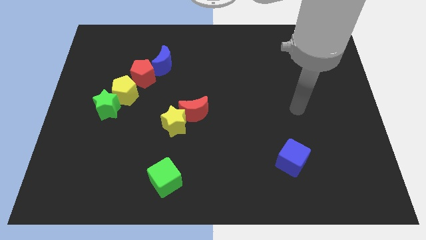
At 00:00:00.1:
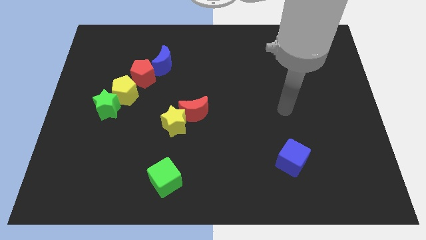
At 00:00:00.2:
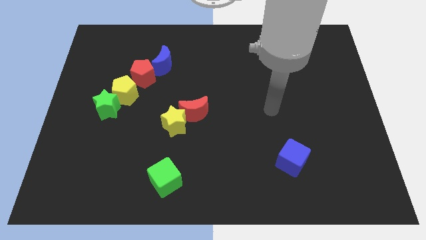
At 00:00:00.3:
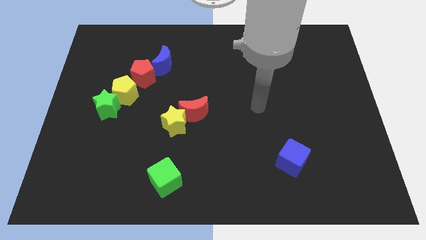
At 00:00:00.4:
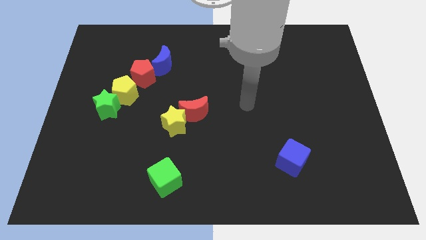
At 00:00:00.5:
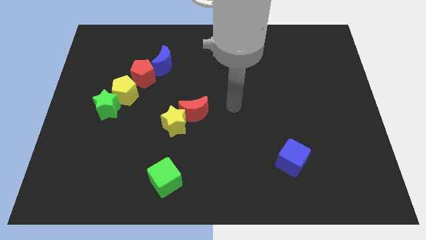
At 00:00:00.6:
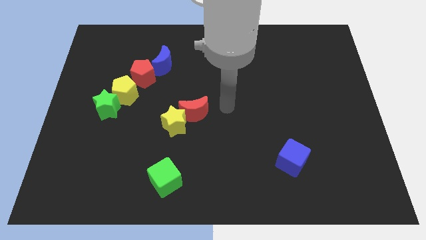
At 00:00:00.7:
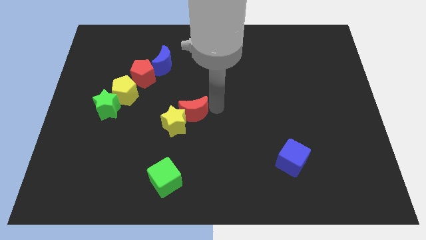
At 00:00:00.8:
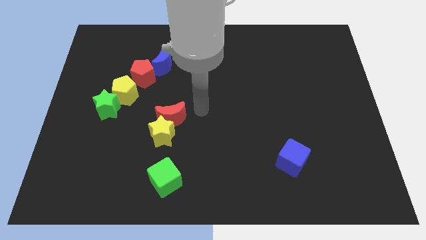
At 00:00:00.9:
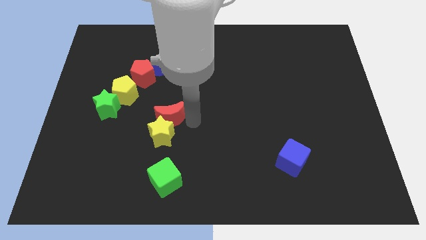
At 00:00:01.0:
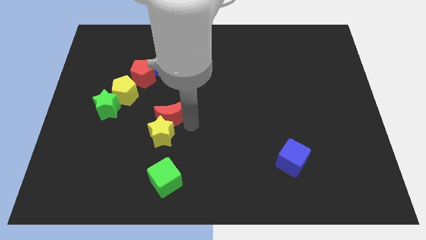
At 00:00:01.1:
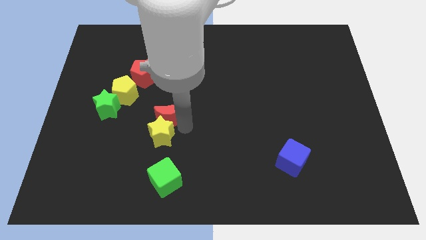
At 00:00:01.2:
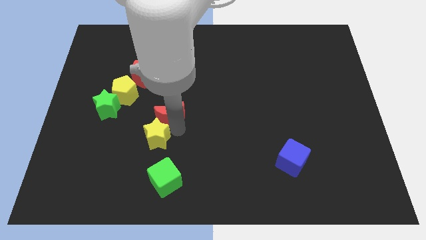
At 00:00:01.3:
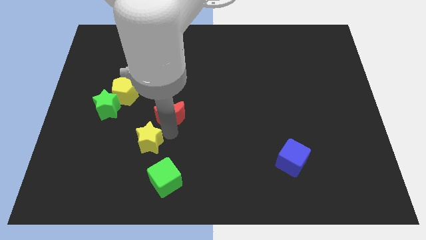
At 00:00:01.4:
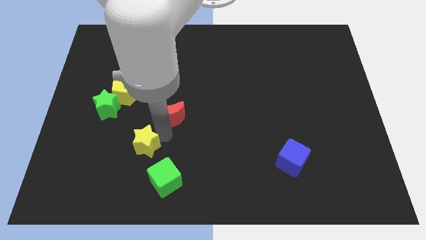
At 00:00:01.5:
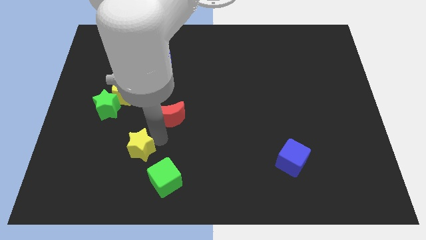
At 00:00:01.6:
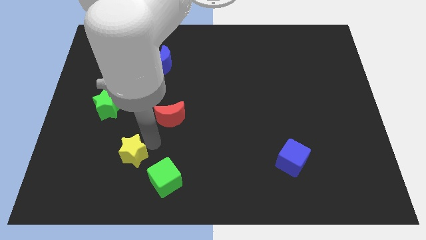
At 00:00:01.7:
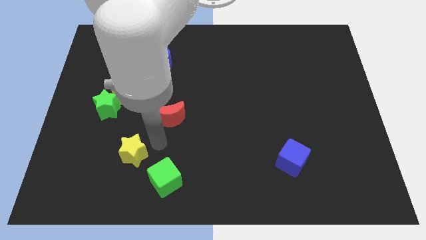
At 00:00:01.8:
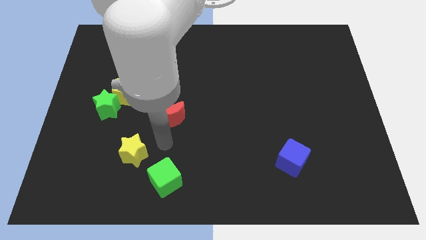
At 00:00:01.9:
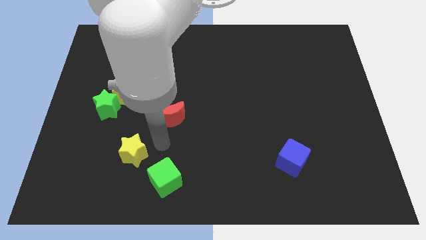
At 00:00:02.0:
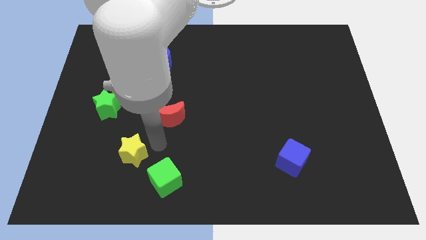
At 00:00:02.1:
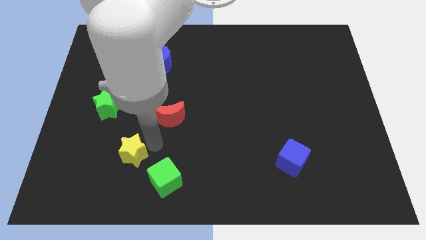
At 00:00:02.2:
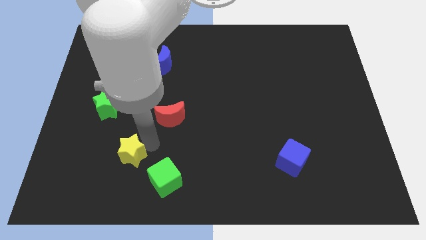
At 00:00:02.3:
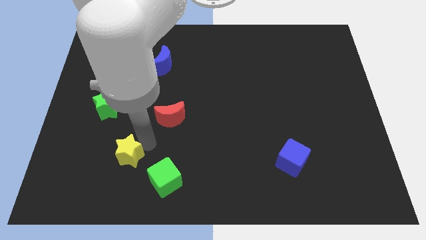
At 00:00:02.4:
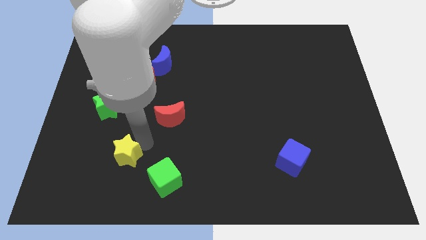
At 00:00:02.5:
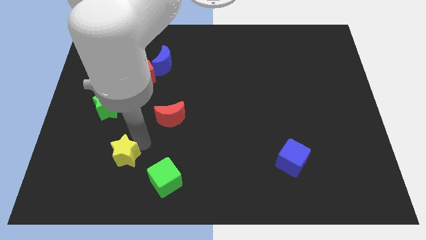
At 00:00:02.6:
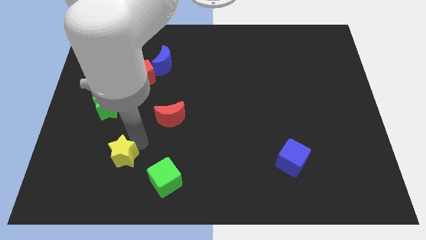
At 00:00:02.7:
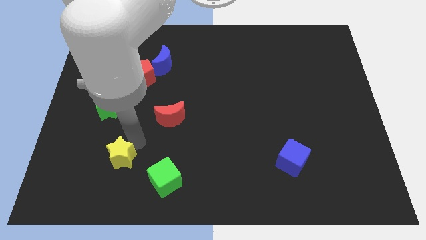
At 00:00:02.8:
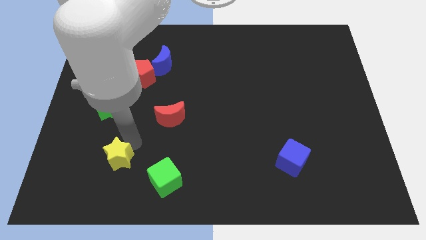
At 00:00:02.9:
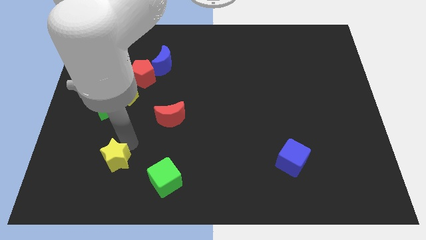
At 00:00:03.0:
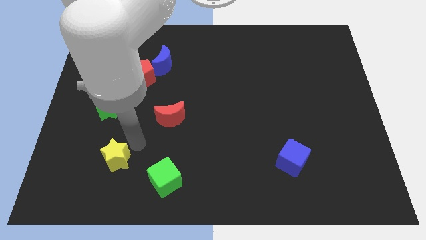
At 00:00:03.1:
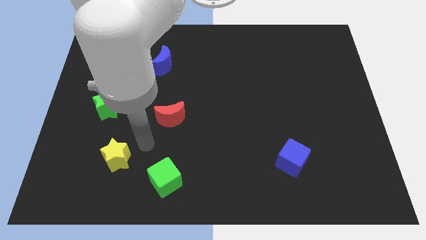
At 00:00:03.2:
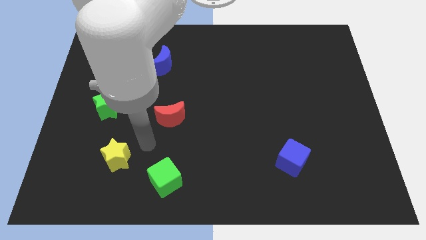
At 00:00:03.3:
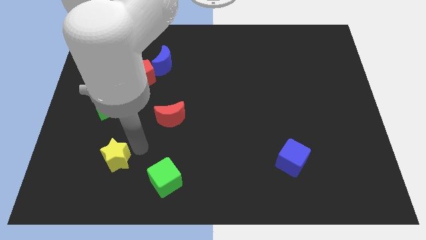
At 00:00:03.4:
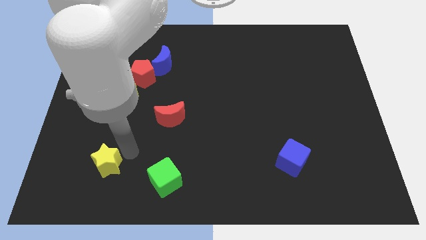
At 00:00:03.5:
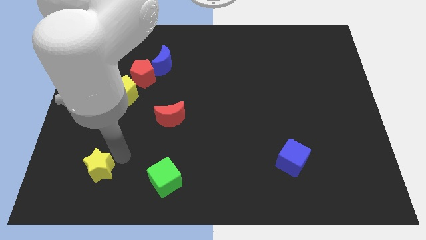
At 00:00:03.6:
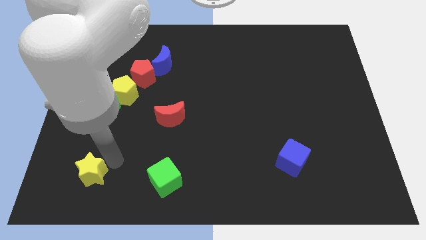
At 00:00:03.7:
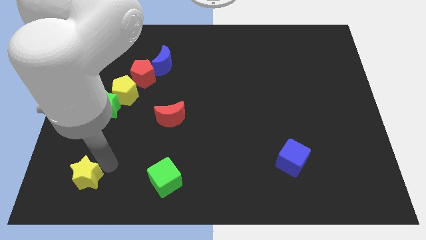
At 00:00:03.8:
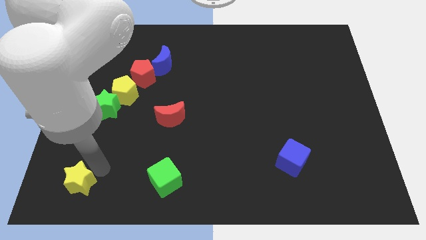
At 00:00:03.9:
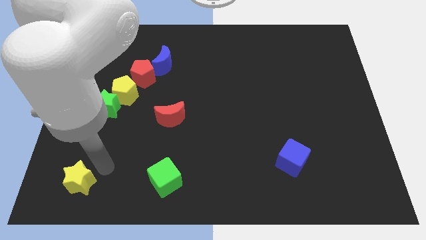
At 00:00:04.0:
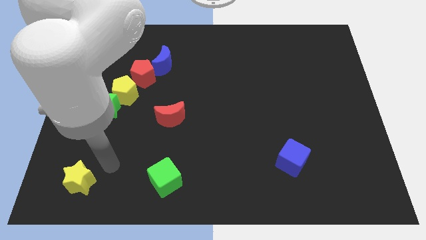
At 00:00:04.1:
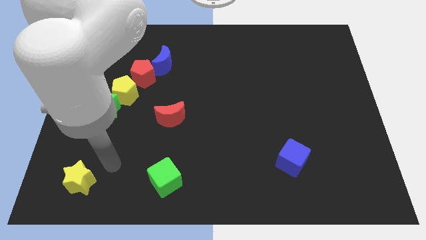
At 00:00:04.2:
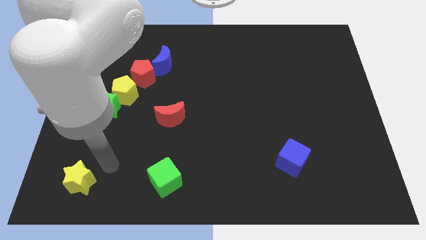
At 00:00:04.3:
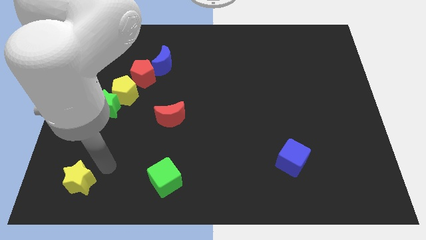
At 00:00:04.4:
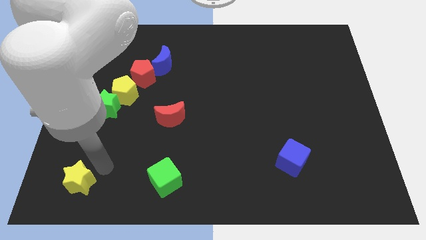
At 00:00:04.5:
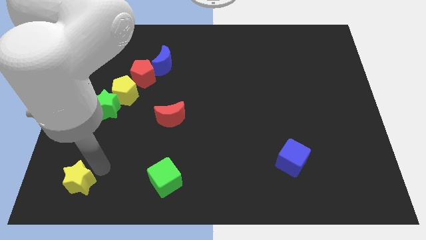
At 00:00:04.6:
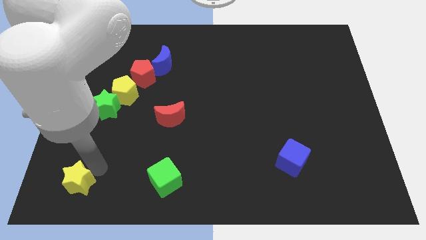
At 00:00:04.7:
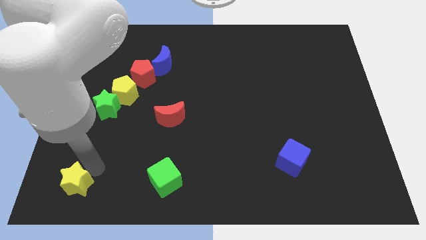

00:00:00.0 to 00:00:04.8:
put the yellow star to the bottom left

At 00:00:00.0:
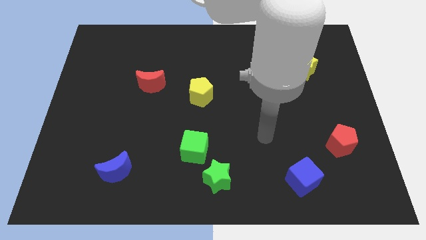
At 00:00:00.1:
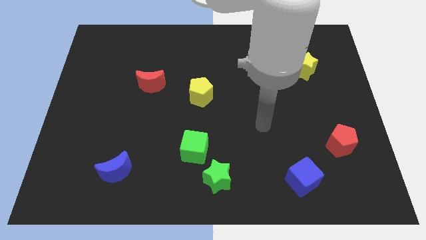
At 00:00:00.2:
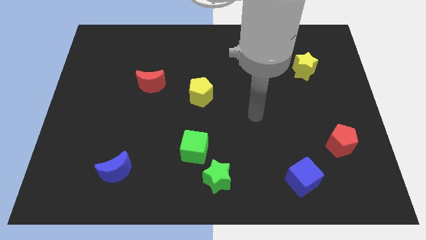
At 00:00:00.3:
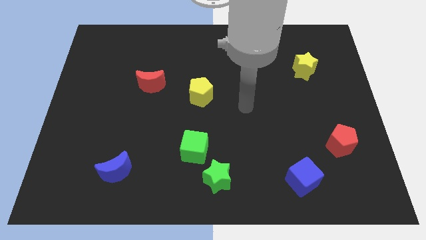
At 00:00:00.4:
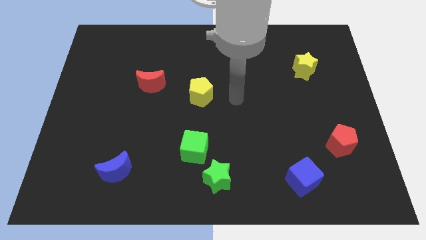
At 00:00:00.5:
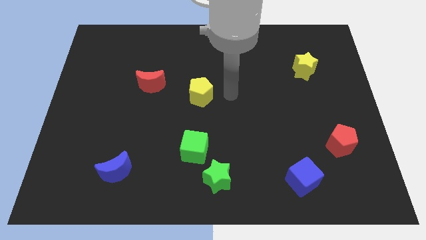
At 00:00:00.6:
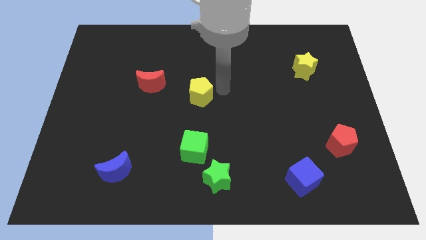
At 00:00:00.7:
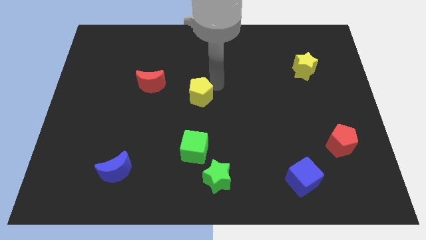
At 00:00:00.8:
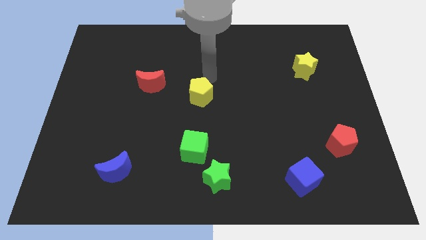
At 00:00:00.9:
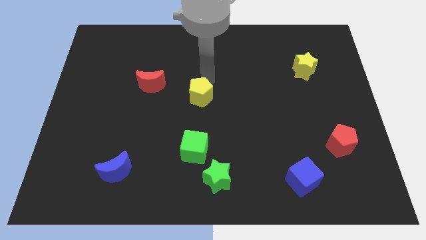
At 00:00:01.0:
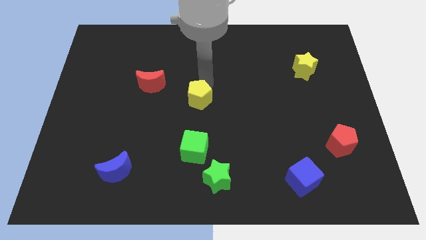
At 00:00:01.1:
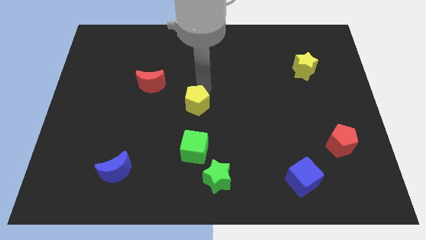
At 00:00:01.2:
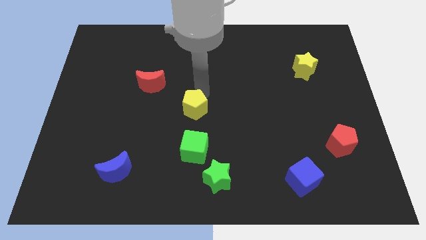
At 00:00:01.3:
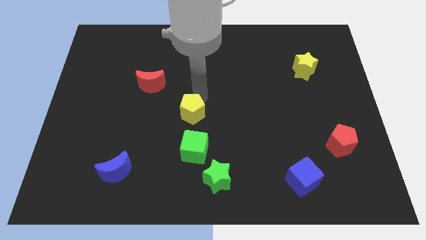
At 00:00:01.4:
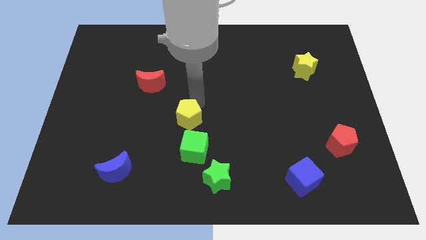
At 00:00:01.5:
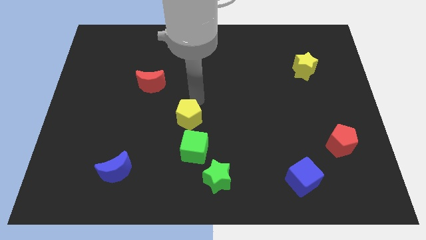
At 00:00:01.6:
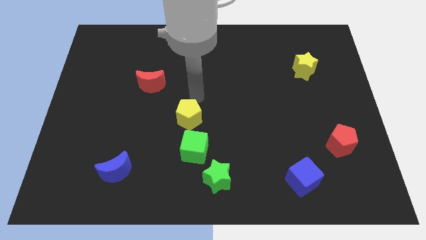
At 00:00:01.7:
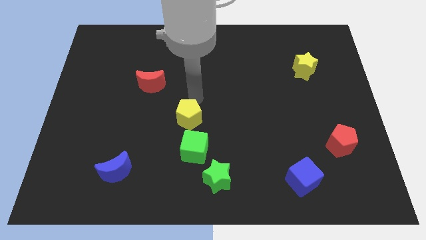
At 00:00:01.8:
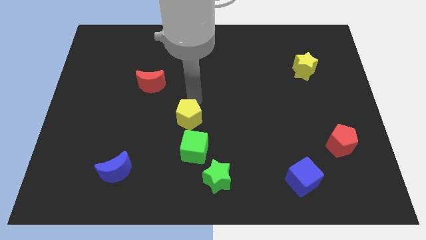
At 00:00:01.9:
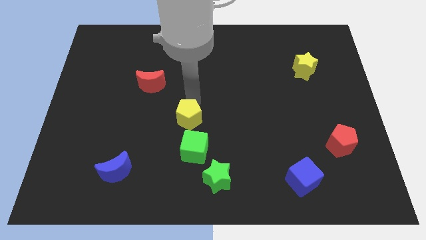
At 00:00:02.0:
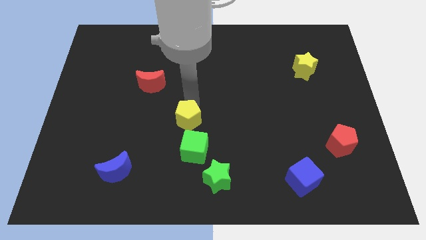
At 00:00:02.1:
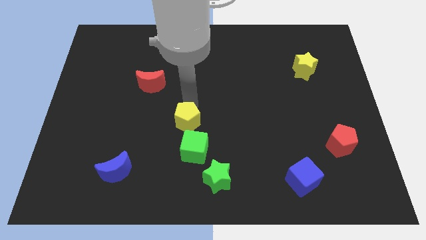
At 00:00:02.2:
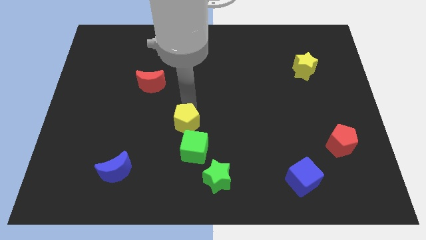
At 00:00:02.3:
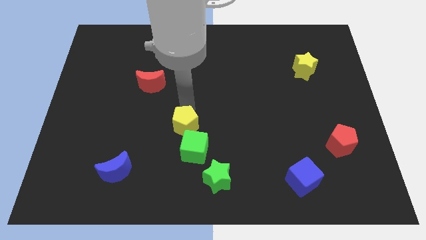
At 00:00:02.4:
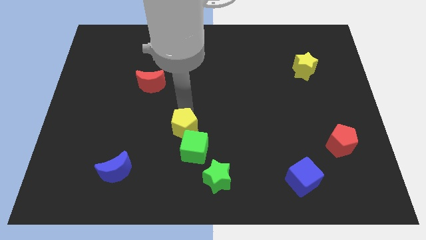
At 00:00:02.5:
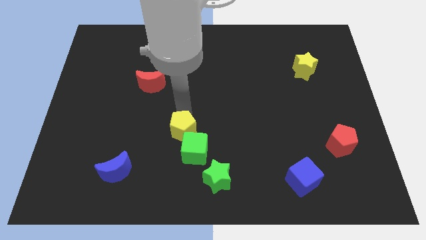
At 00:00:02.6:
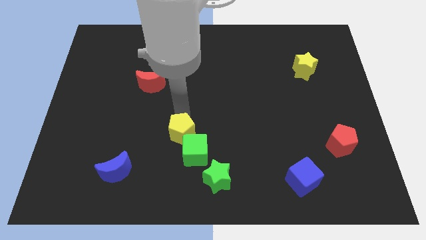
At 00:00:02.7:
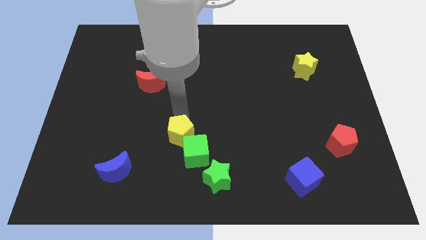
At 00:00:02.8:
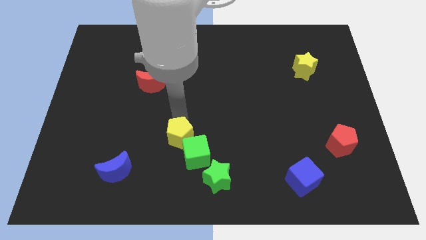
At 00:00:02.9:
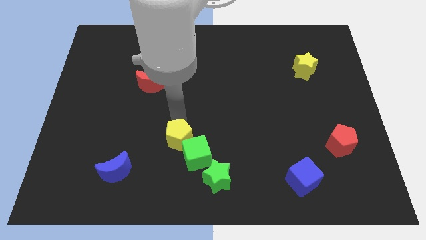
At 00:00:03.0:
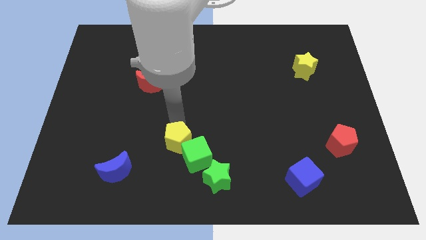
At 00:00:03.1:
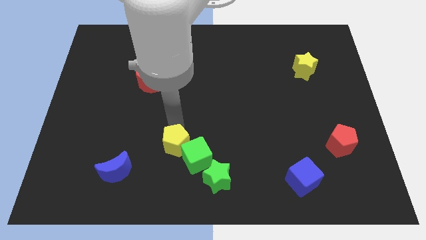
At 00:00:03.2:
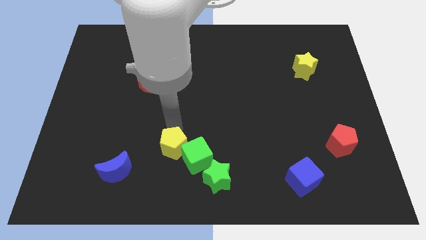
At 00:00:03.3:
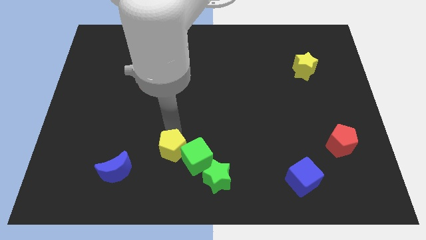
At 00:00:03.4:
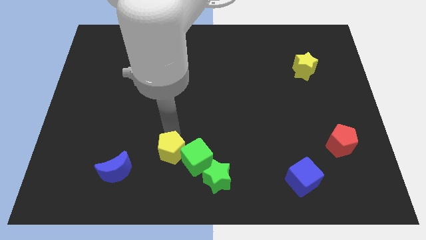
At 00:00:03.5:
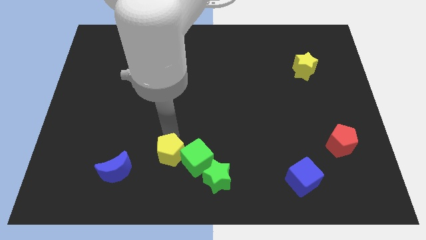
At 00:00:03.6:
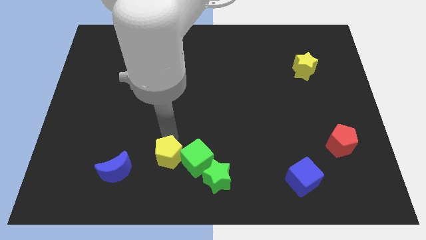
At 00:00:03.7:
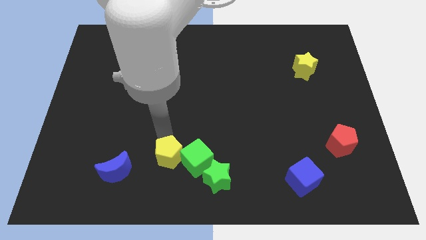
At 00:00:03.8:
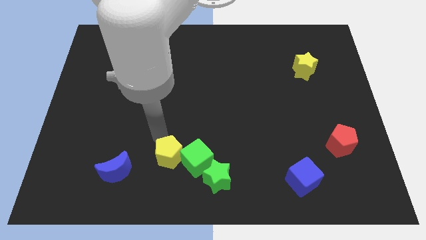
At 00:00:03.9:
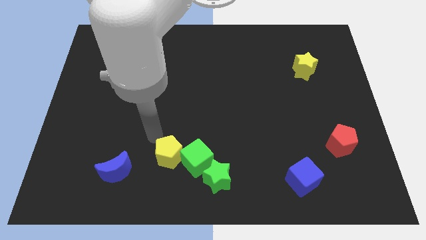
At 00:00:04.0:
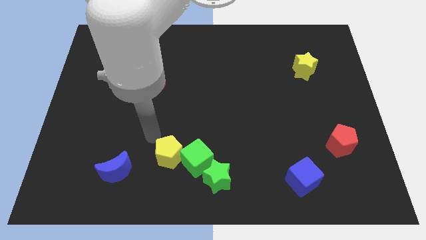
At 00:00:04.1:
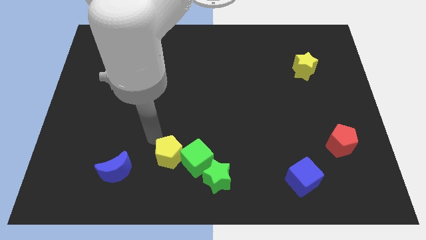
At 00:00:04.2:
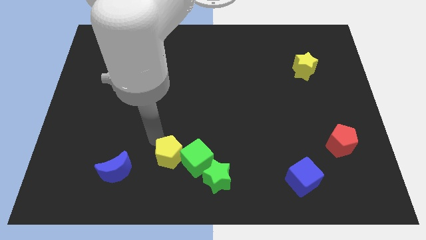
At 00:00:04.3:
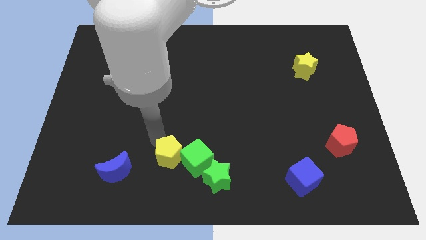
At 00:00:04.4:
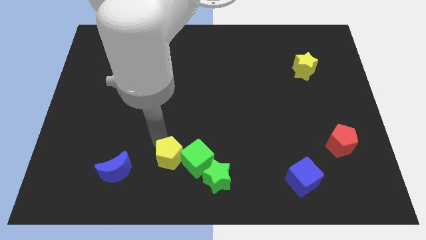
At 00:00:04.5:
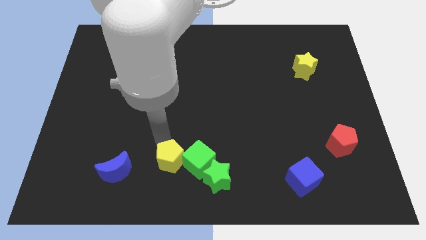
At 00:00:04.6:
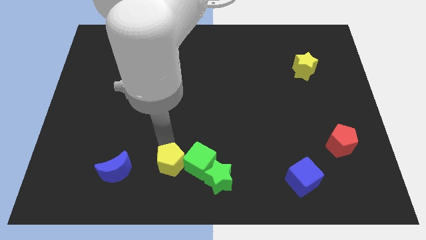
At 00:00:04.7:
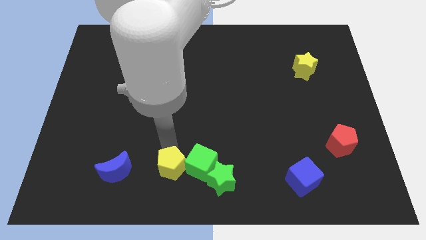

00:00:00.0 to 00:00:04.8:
slide the yellow pentagon to the bottom side
